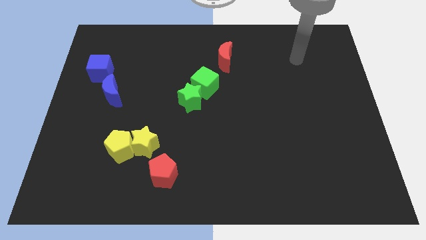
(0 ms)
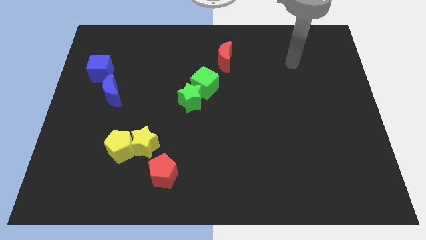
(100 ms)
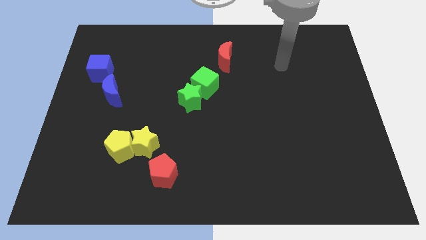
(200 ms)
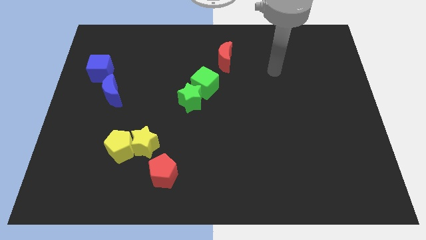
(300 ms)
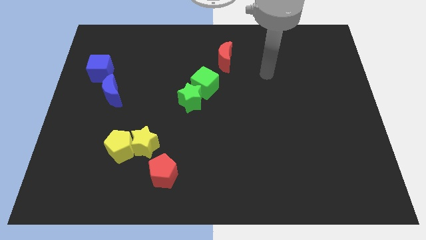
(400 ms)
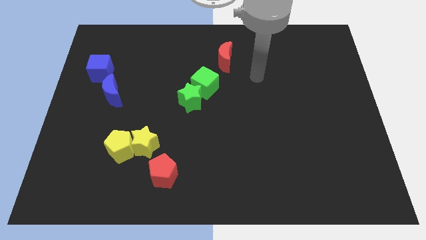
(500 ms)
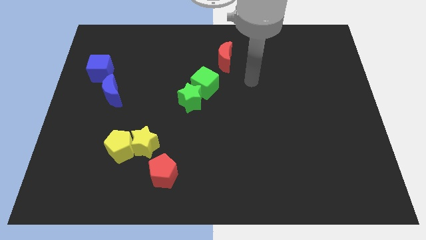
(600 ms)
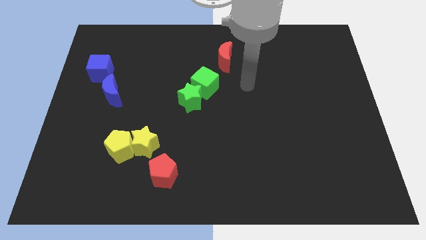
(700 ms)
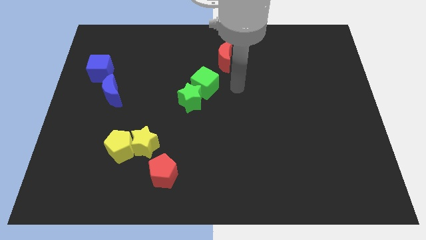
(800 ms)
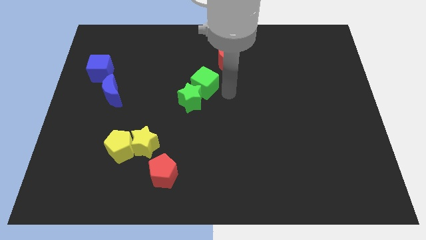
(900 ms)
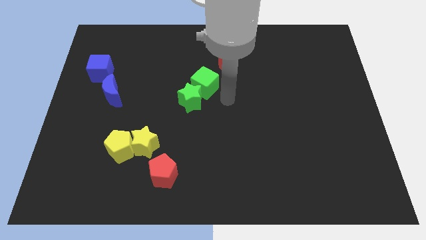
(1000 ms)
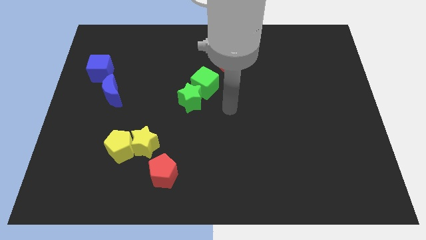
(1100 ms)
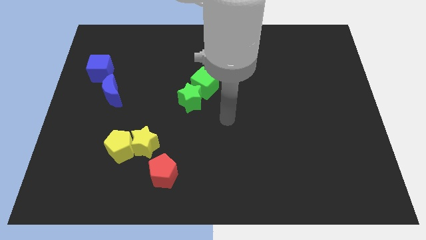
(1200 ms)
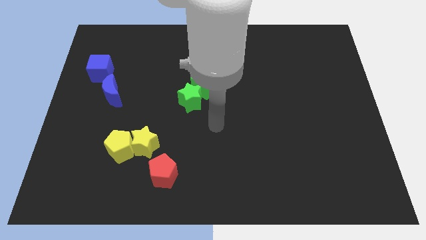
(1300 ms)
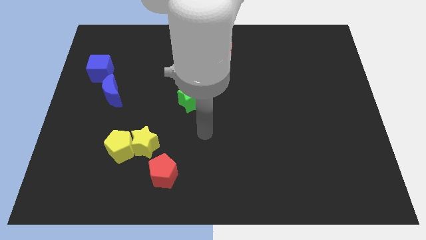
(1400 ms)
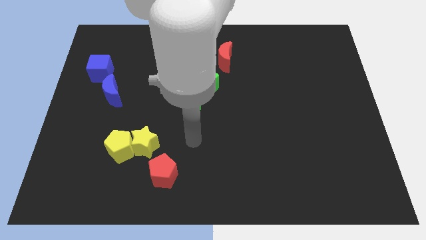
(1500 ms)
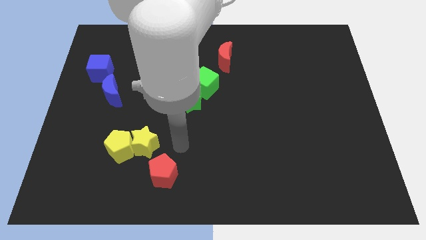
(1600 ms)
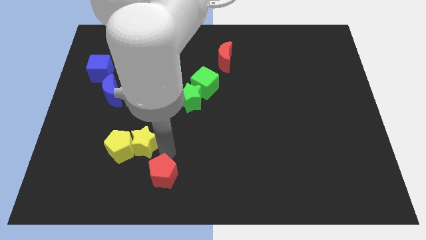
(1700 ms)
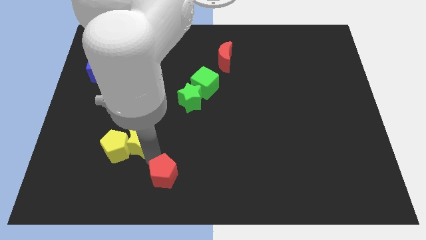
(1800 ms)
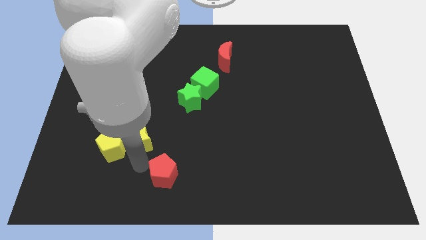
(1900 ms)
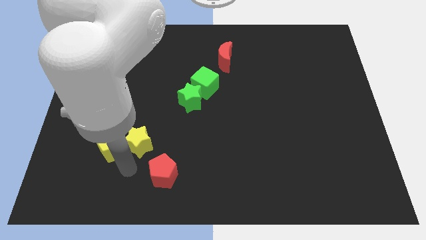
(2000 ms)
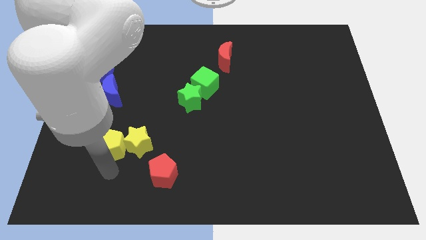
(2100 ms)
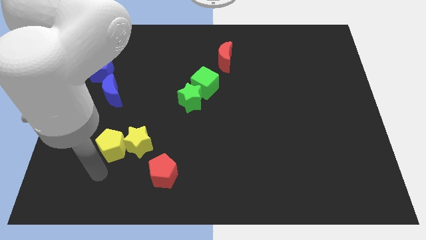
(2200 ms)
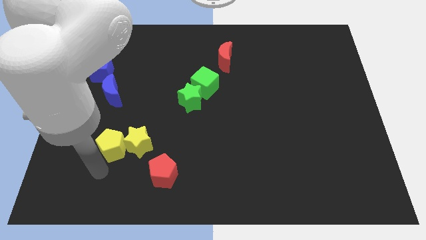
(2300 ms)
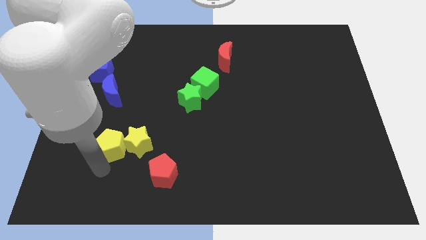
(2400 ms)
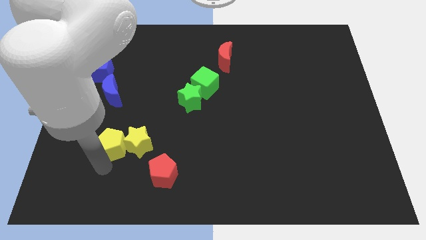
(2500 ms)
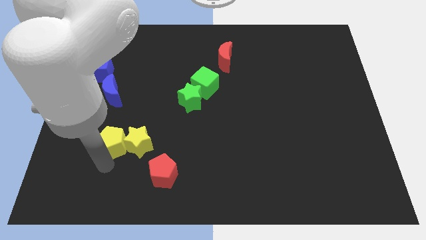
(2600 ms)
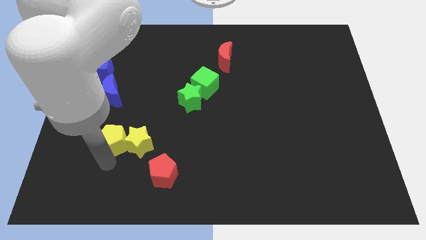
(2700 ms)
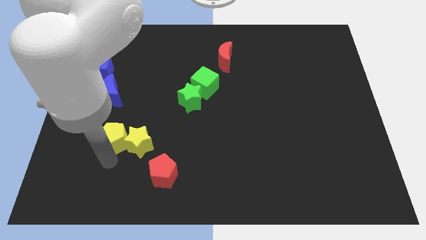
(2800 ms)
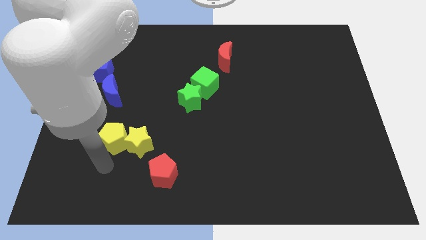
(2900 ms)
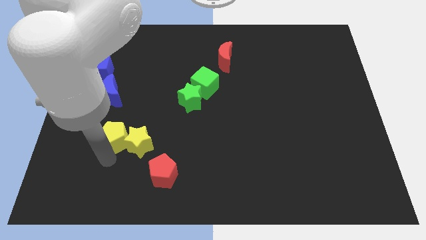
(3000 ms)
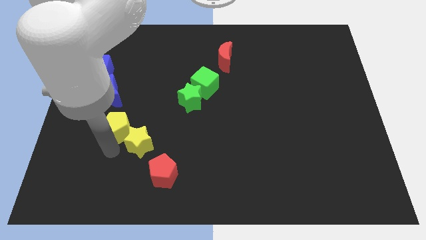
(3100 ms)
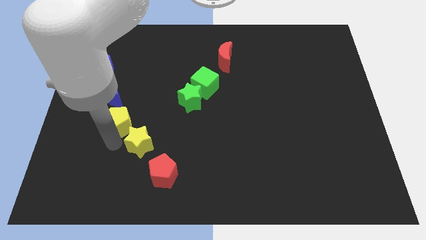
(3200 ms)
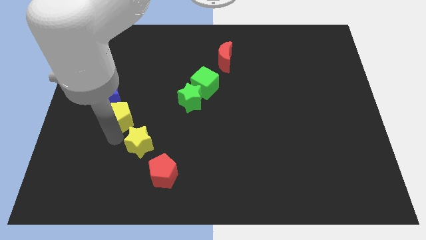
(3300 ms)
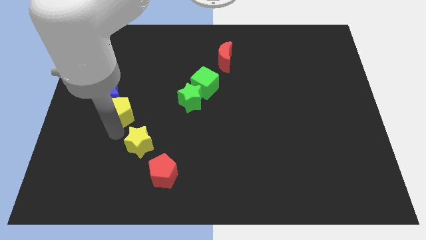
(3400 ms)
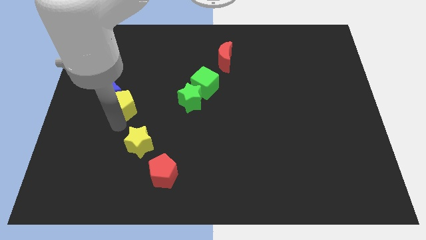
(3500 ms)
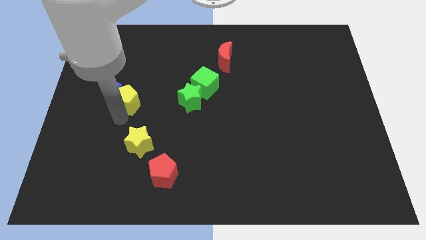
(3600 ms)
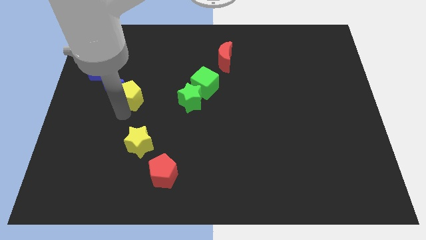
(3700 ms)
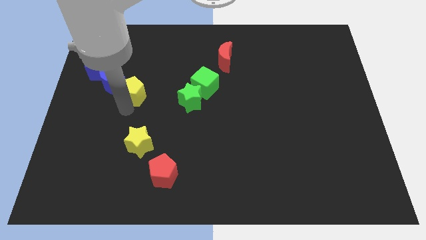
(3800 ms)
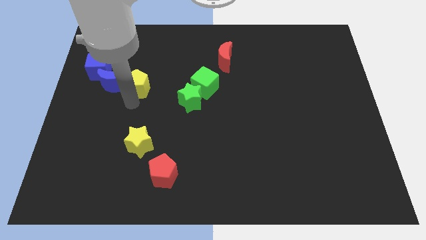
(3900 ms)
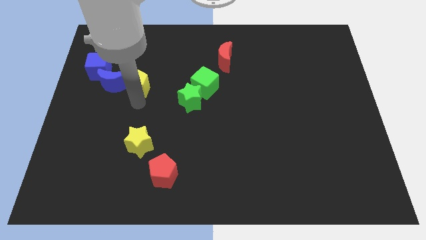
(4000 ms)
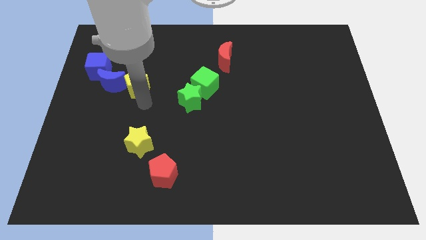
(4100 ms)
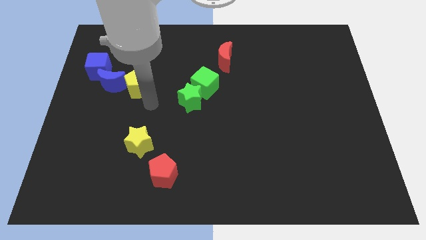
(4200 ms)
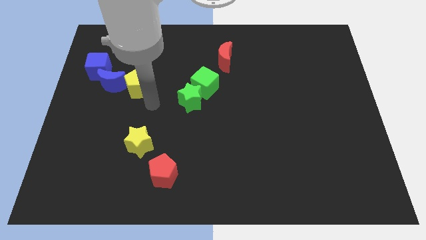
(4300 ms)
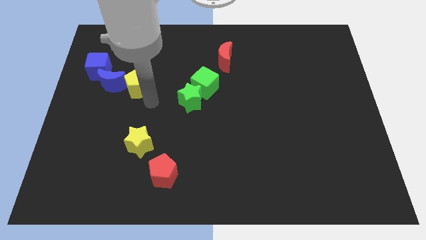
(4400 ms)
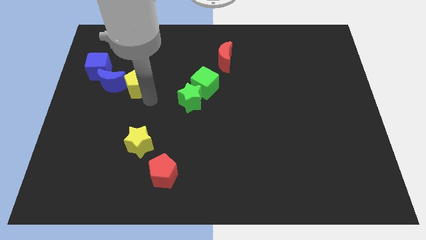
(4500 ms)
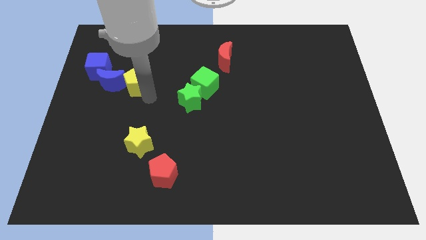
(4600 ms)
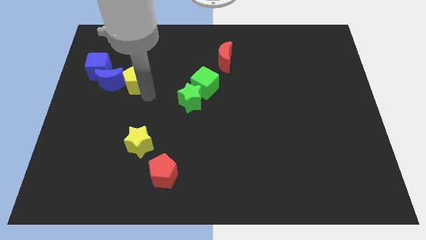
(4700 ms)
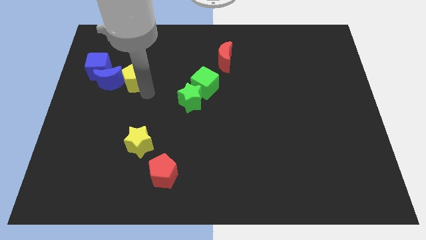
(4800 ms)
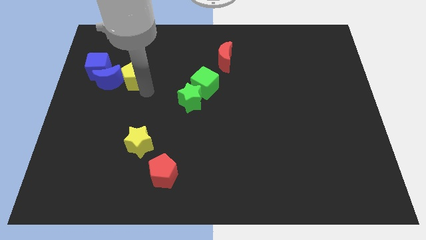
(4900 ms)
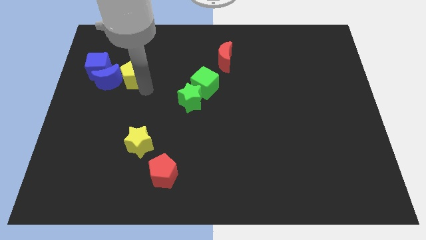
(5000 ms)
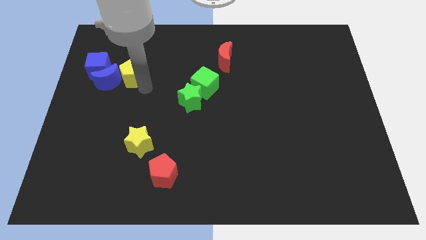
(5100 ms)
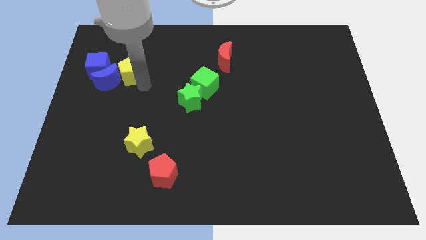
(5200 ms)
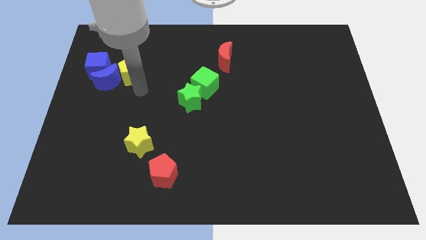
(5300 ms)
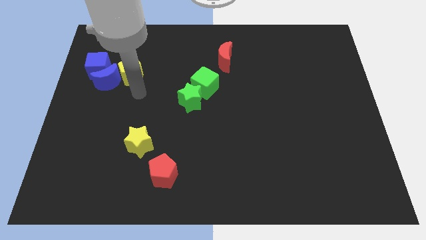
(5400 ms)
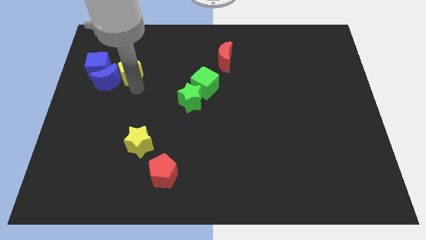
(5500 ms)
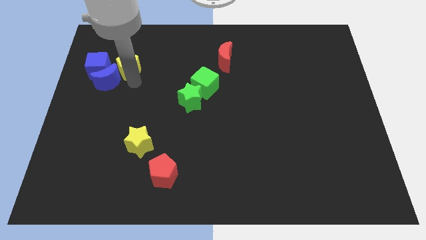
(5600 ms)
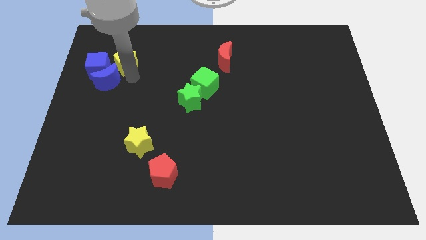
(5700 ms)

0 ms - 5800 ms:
push the yellow pentagon to the top right side of the blue cube

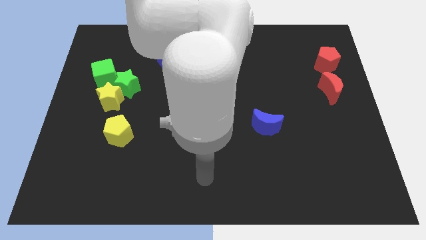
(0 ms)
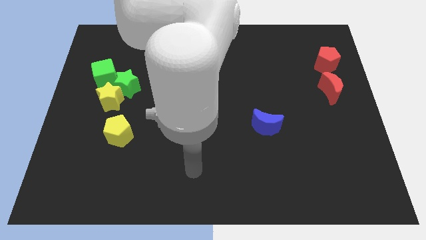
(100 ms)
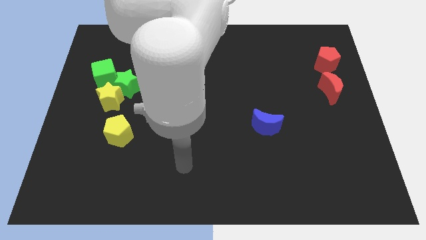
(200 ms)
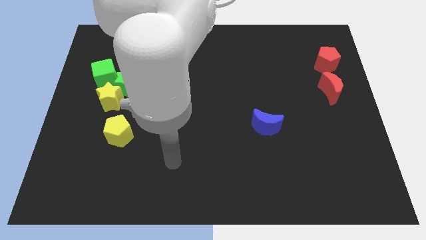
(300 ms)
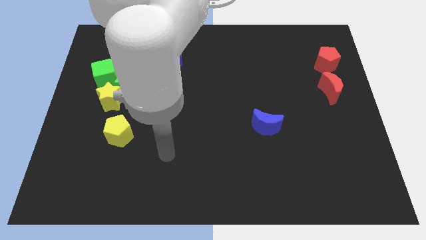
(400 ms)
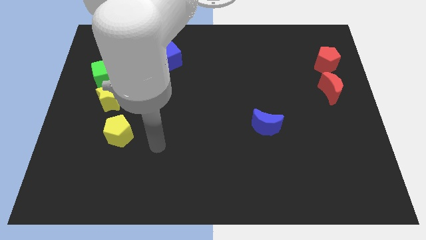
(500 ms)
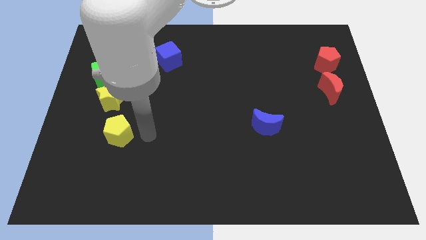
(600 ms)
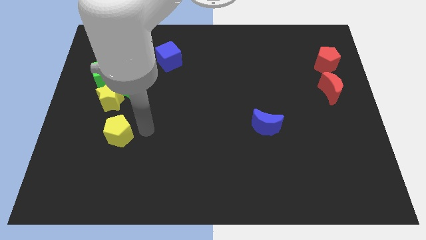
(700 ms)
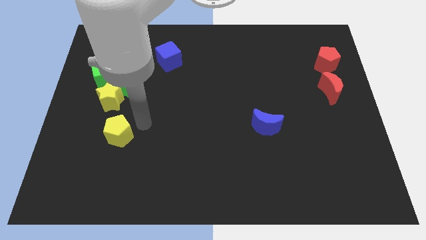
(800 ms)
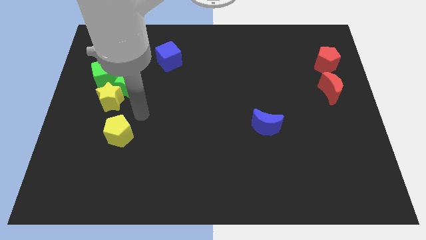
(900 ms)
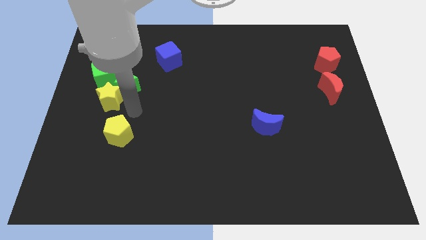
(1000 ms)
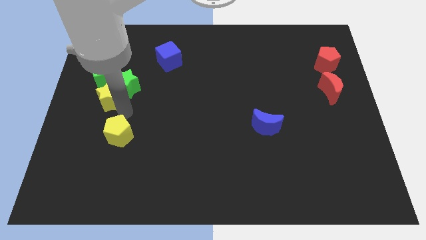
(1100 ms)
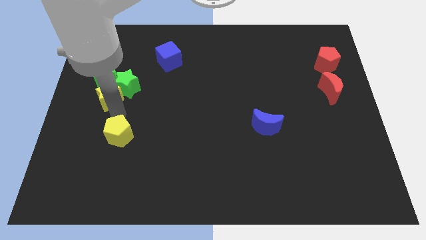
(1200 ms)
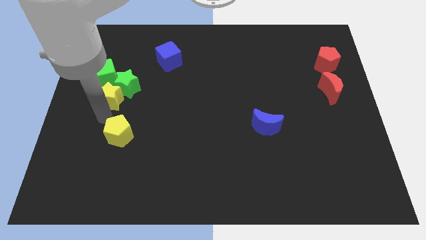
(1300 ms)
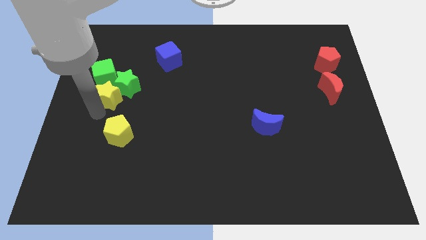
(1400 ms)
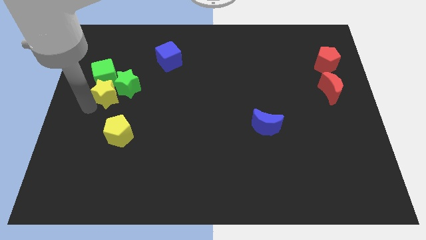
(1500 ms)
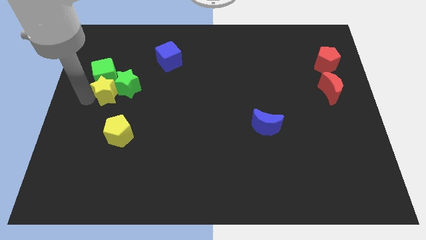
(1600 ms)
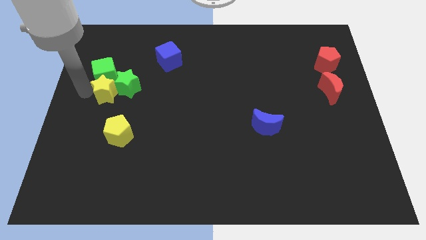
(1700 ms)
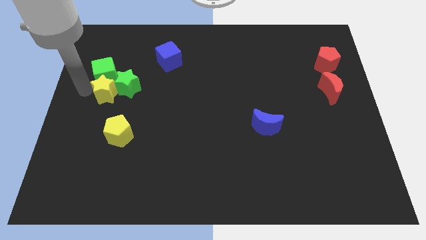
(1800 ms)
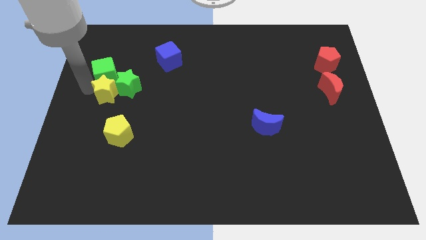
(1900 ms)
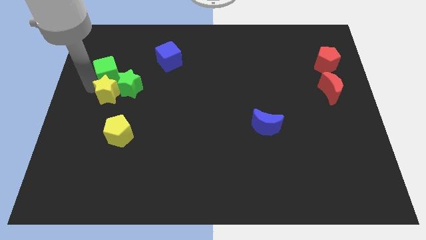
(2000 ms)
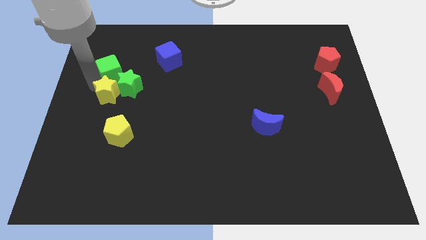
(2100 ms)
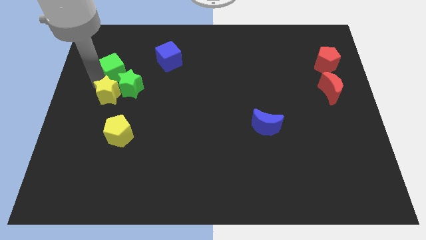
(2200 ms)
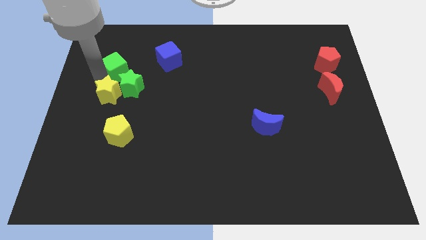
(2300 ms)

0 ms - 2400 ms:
slide the green cube to the top side of the green star
